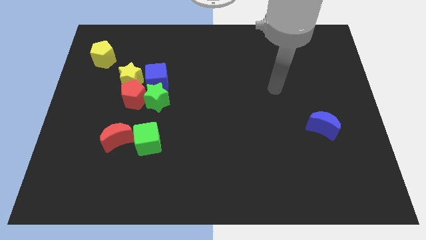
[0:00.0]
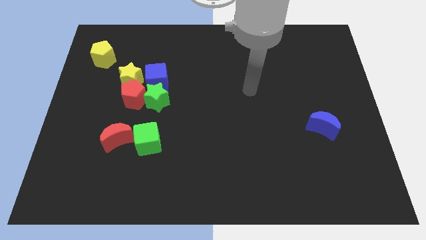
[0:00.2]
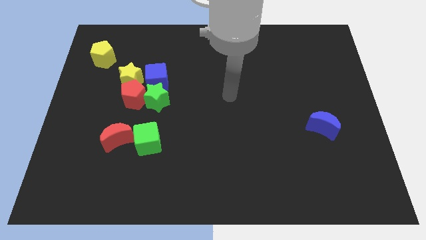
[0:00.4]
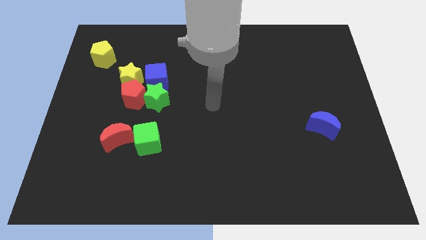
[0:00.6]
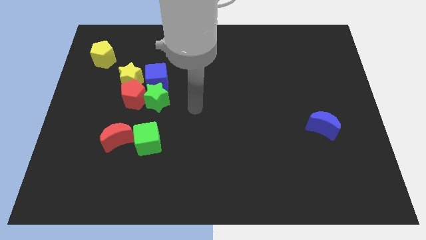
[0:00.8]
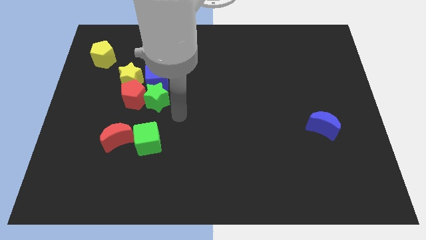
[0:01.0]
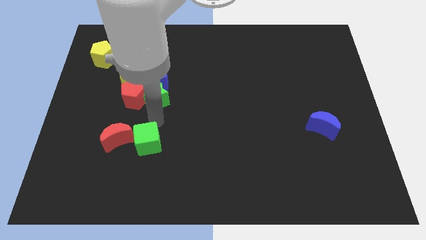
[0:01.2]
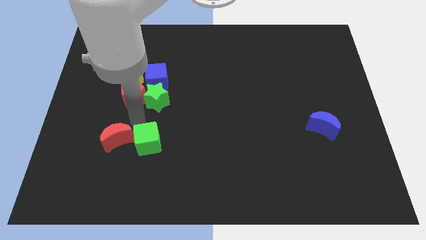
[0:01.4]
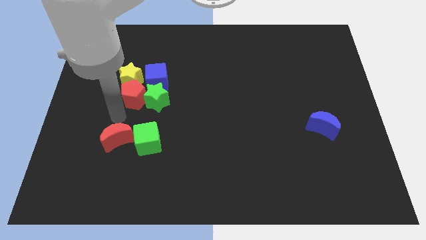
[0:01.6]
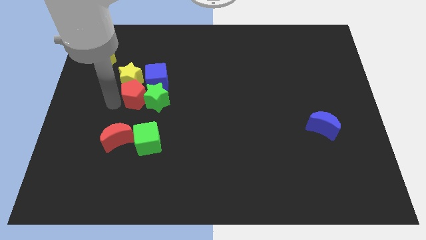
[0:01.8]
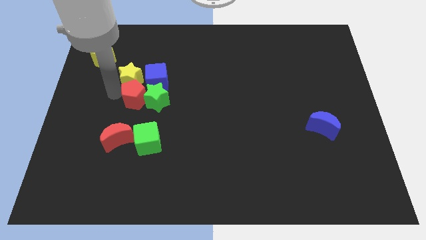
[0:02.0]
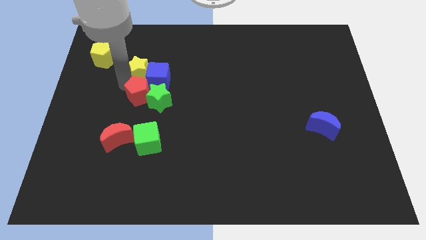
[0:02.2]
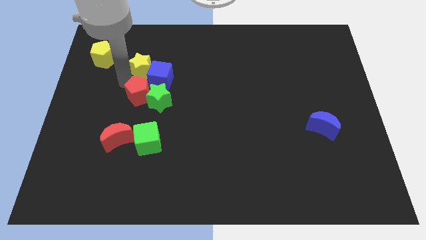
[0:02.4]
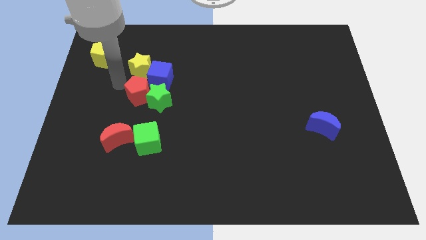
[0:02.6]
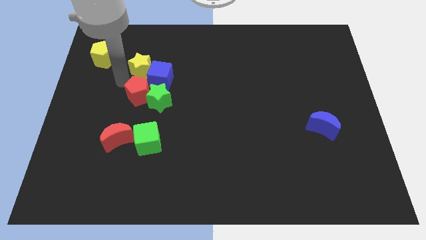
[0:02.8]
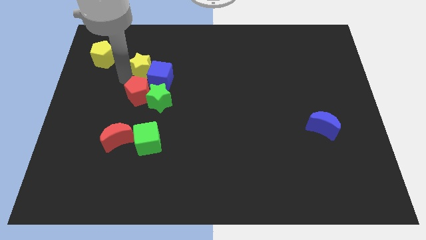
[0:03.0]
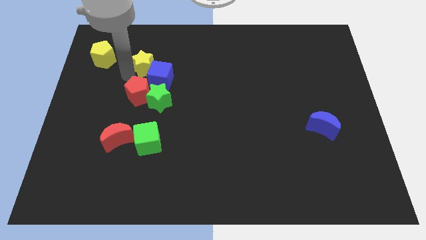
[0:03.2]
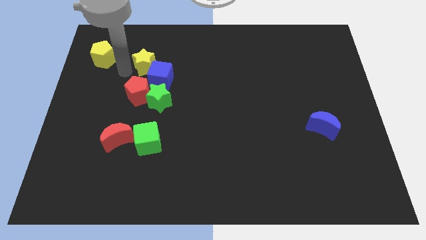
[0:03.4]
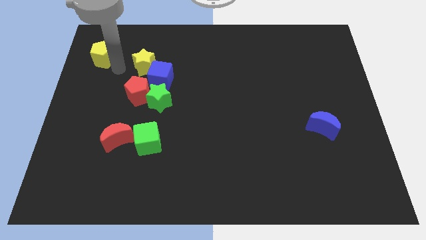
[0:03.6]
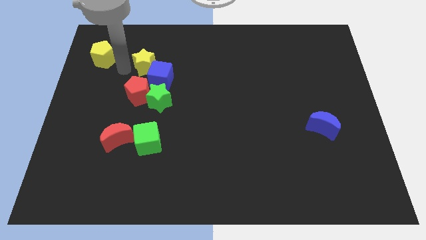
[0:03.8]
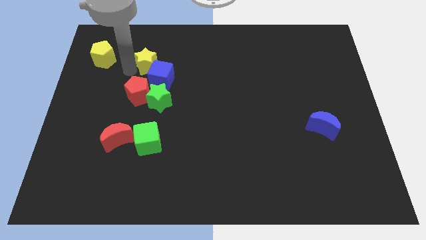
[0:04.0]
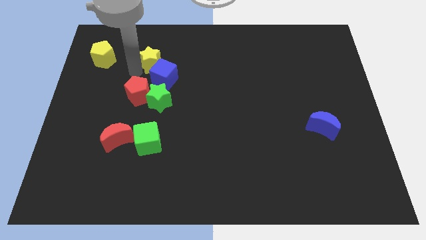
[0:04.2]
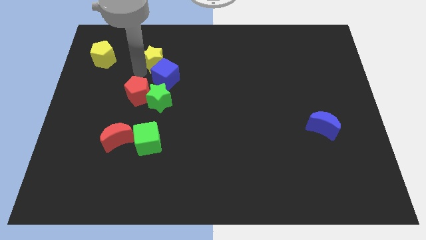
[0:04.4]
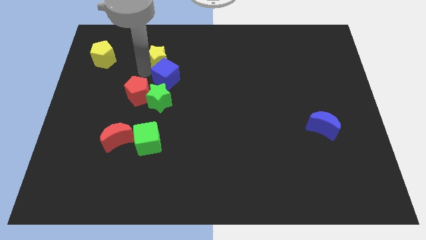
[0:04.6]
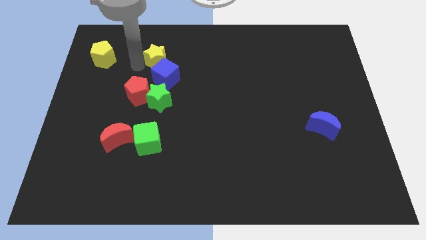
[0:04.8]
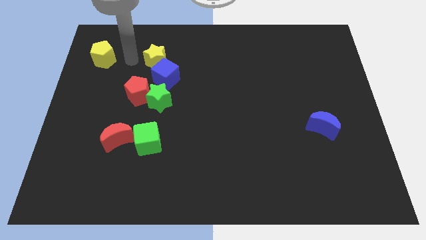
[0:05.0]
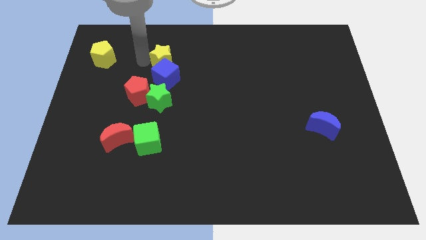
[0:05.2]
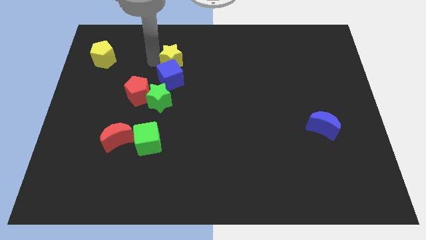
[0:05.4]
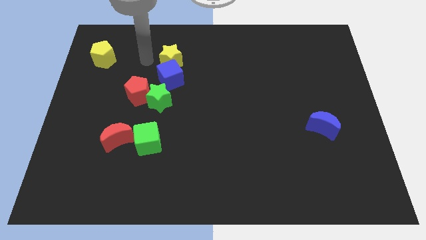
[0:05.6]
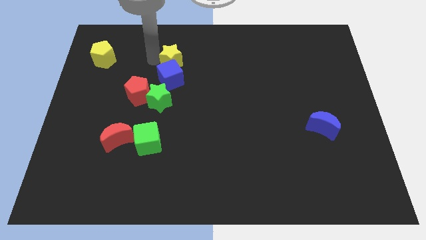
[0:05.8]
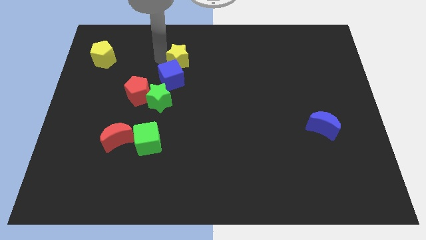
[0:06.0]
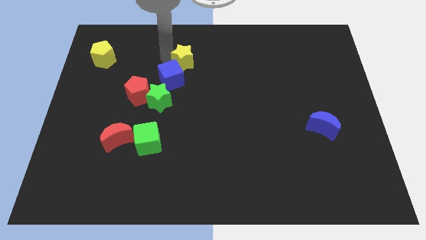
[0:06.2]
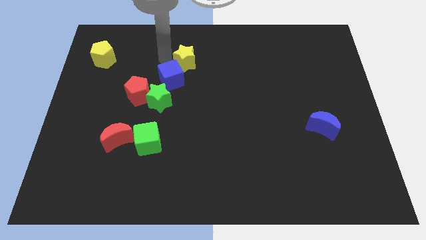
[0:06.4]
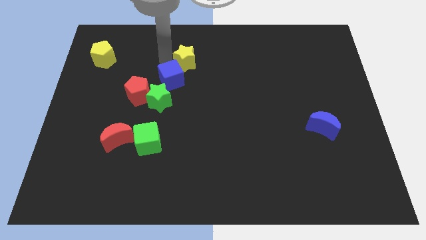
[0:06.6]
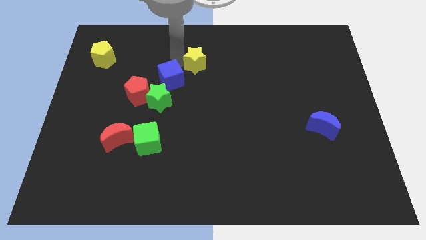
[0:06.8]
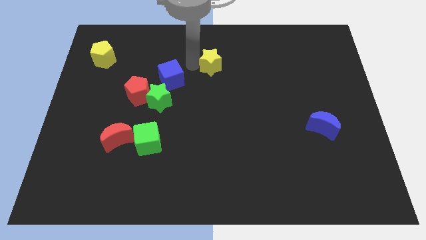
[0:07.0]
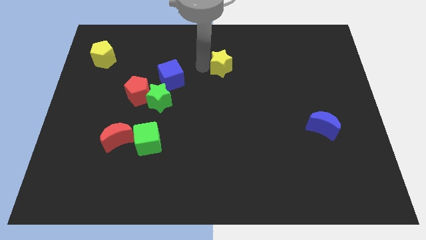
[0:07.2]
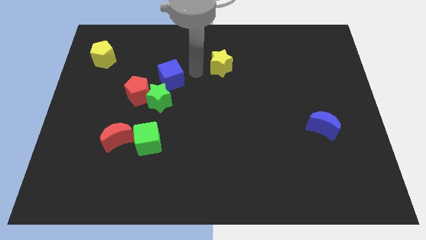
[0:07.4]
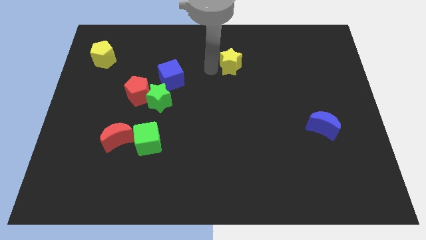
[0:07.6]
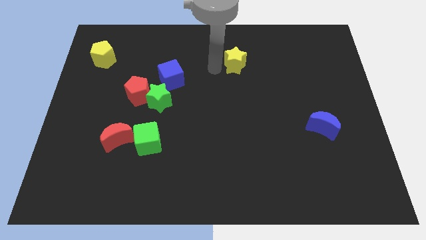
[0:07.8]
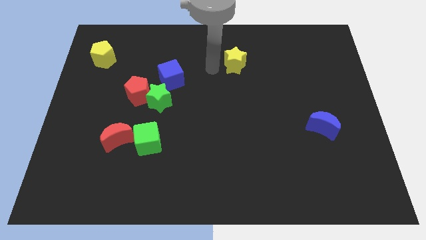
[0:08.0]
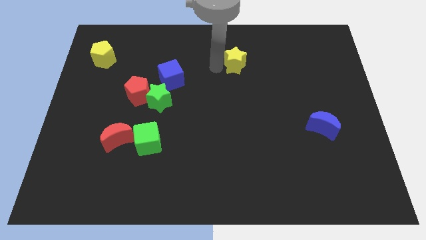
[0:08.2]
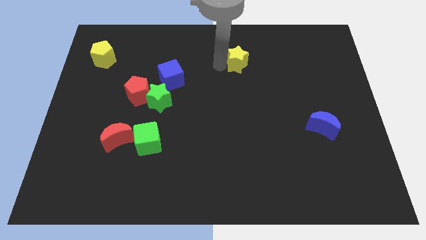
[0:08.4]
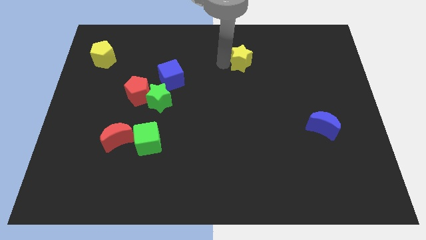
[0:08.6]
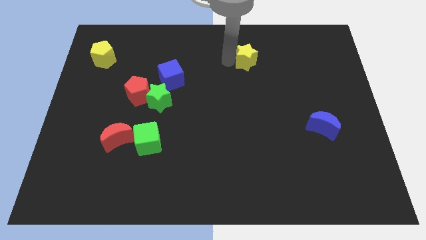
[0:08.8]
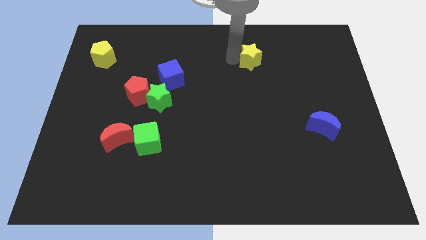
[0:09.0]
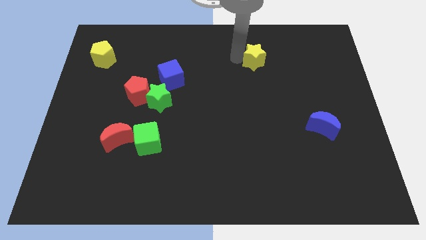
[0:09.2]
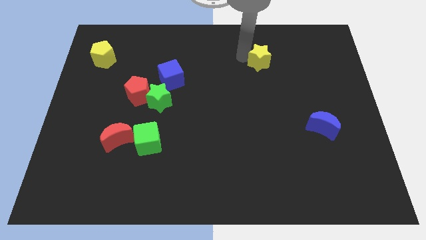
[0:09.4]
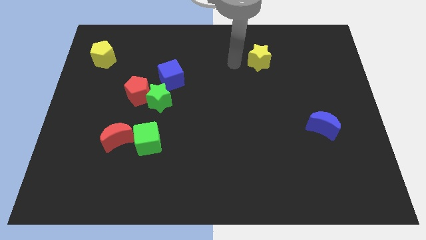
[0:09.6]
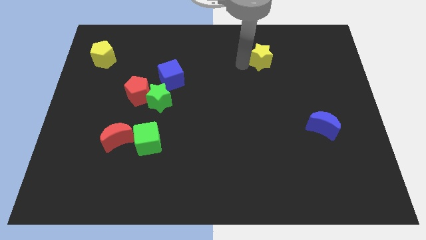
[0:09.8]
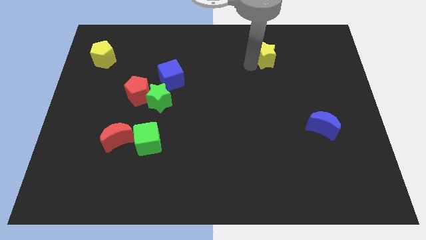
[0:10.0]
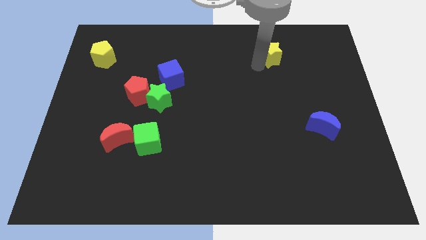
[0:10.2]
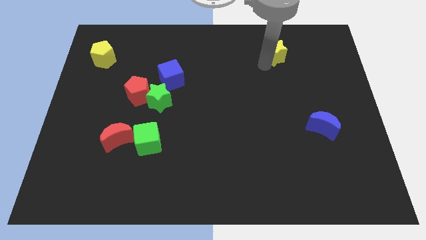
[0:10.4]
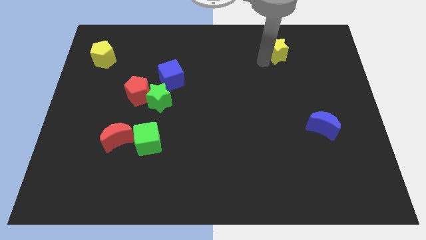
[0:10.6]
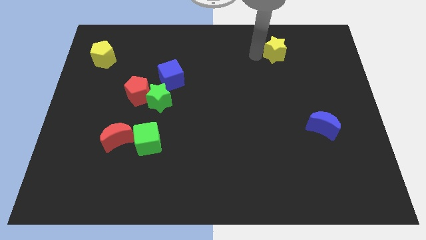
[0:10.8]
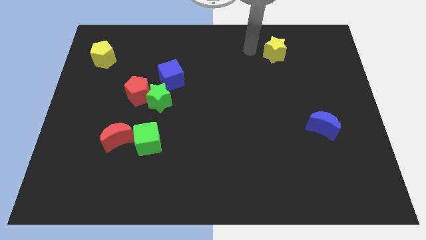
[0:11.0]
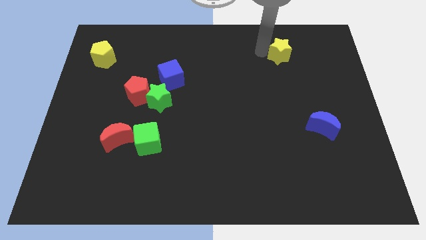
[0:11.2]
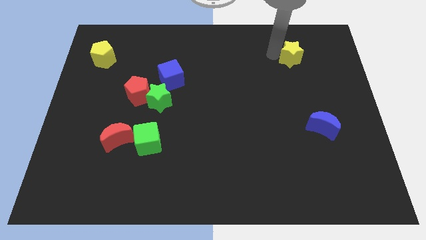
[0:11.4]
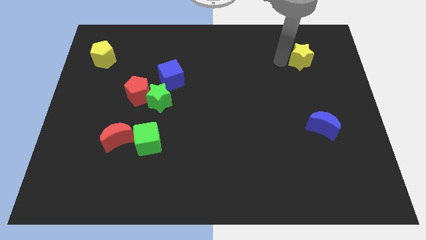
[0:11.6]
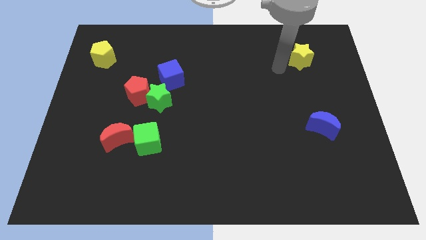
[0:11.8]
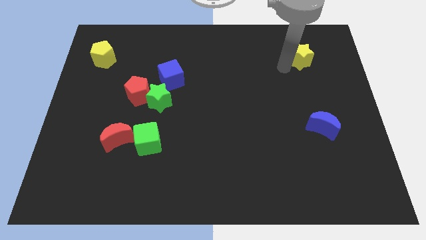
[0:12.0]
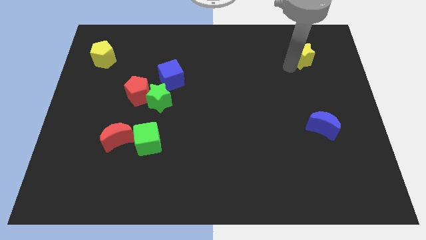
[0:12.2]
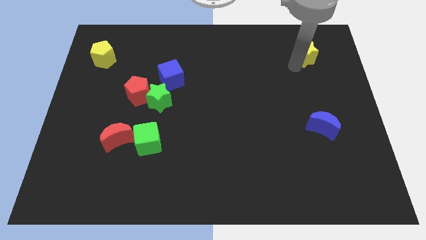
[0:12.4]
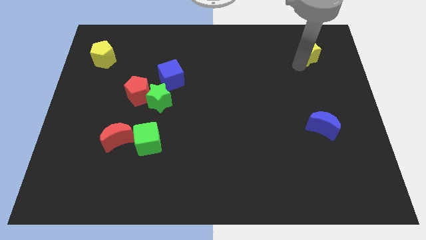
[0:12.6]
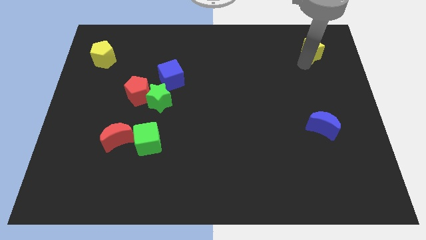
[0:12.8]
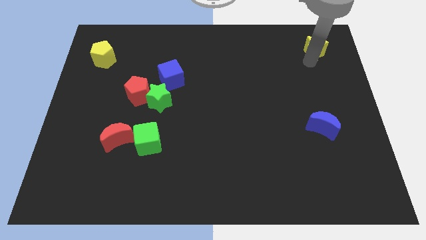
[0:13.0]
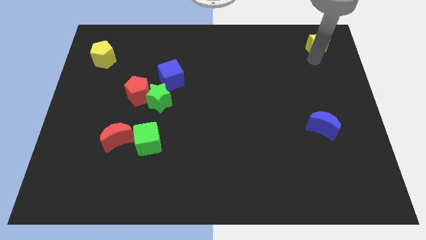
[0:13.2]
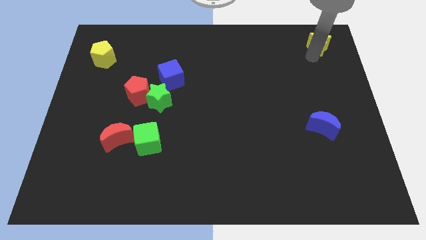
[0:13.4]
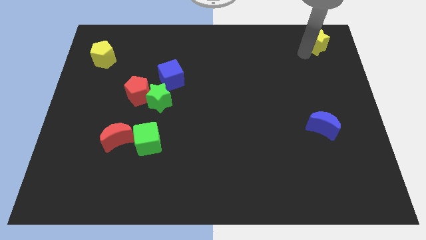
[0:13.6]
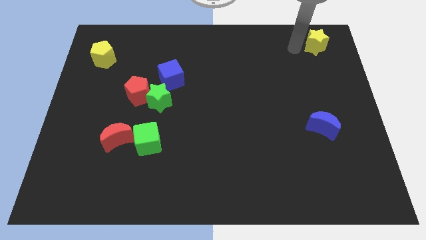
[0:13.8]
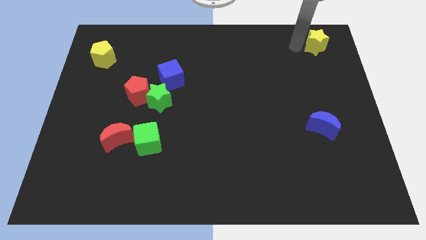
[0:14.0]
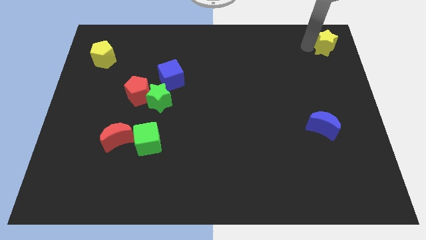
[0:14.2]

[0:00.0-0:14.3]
move the yellow star to the upper right corner
